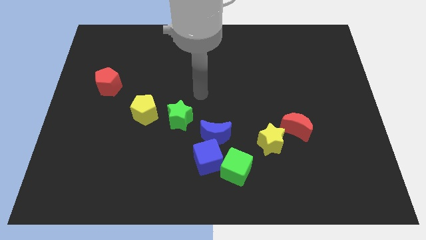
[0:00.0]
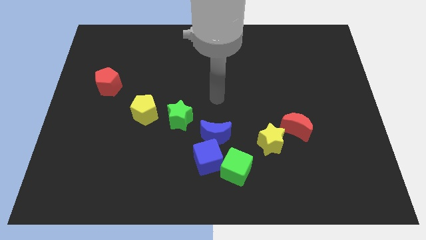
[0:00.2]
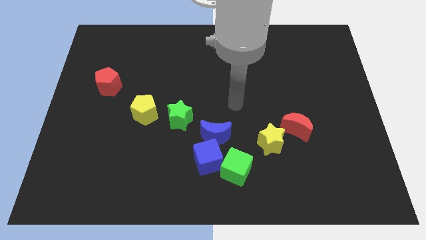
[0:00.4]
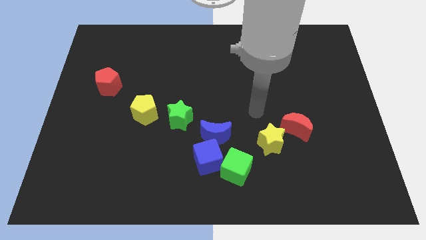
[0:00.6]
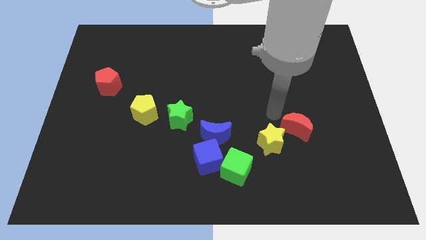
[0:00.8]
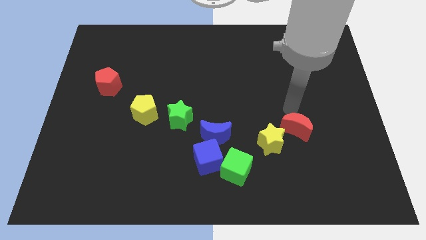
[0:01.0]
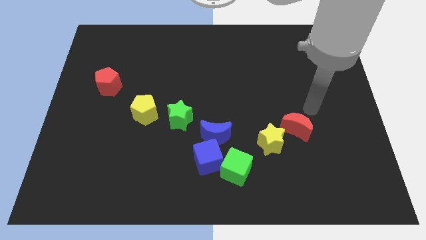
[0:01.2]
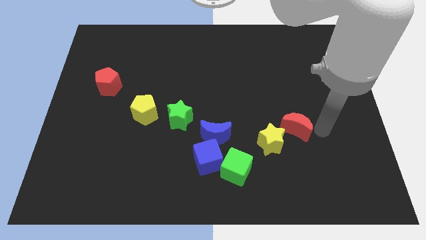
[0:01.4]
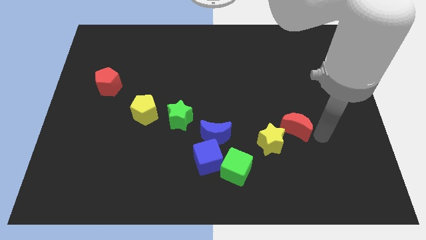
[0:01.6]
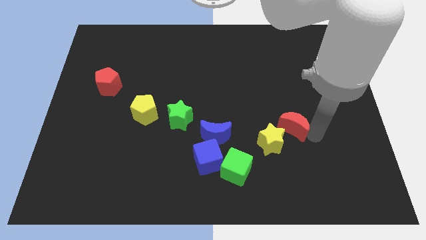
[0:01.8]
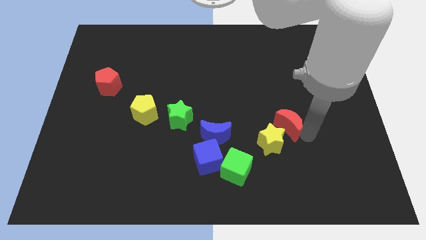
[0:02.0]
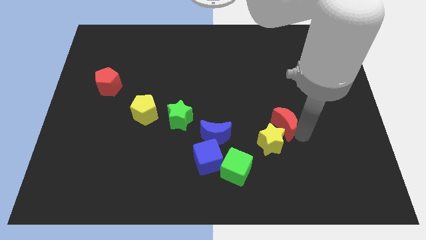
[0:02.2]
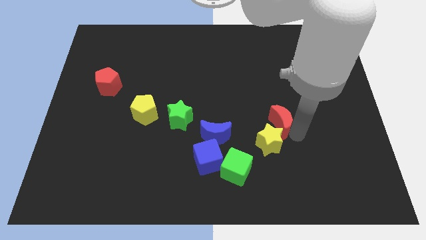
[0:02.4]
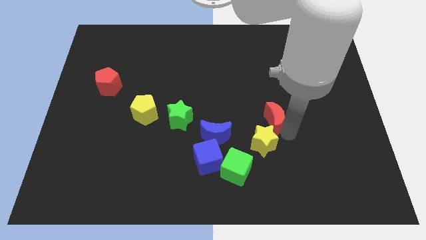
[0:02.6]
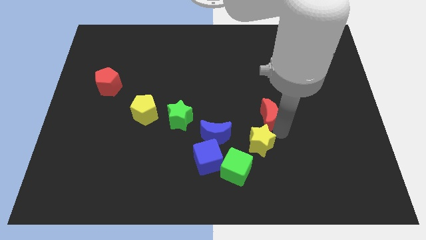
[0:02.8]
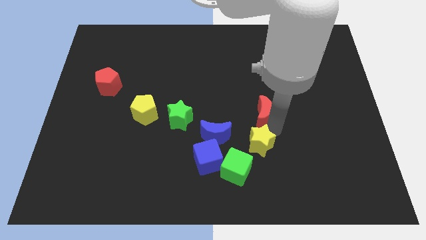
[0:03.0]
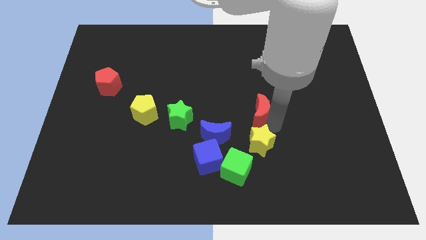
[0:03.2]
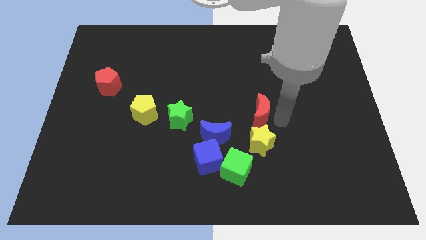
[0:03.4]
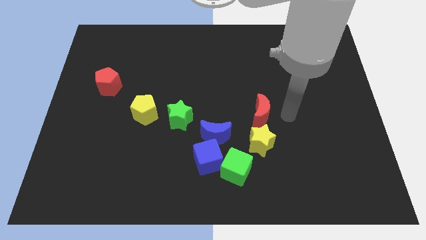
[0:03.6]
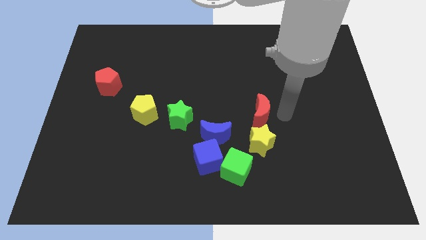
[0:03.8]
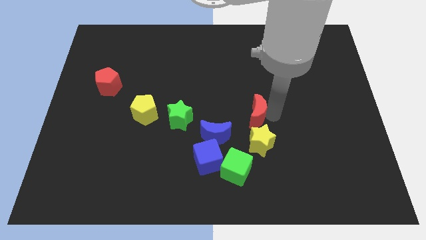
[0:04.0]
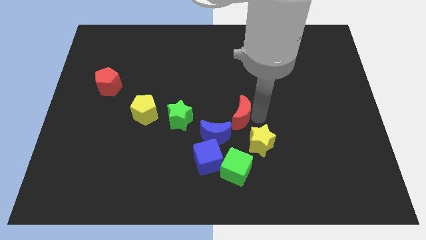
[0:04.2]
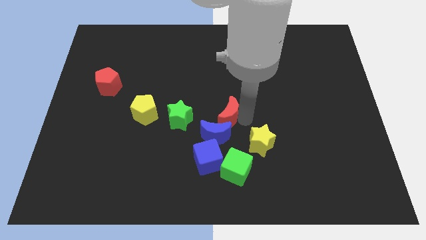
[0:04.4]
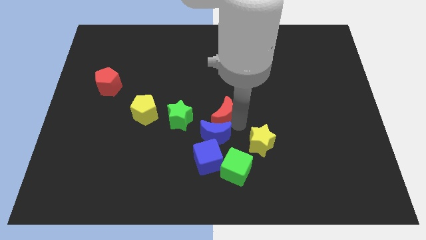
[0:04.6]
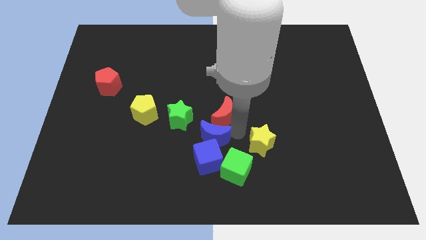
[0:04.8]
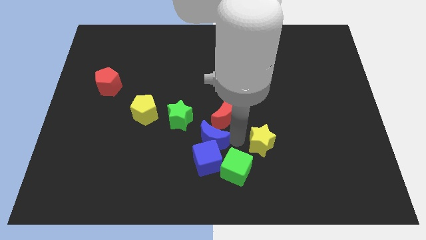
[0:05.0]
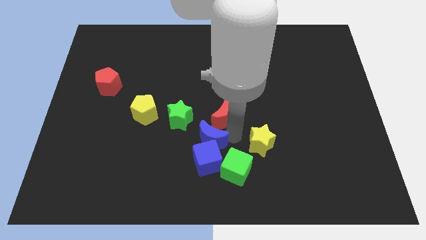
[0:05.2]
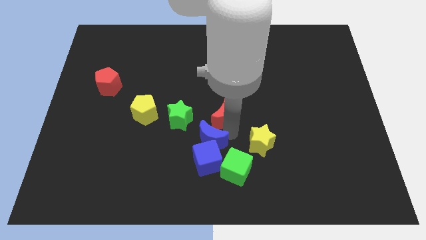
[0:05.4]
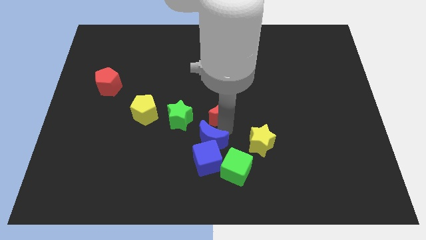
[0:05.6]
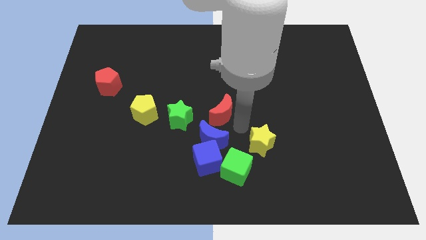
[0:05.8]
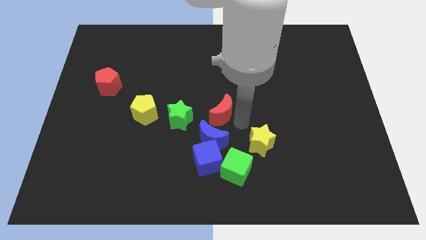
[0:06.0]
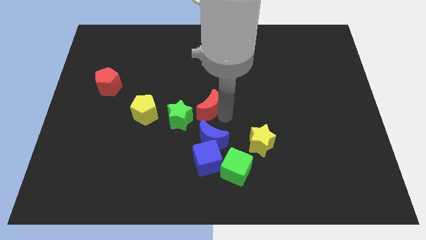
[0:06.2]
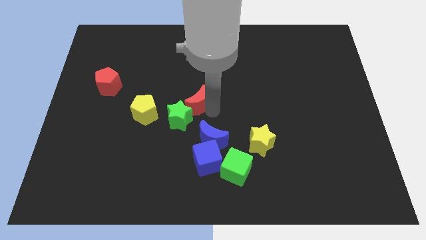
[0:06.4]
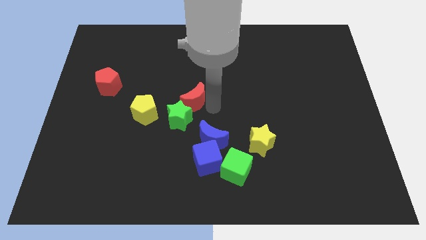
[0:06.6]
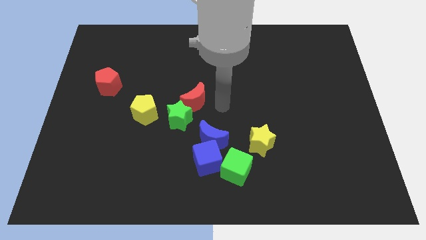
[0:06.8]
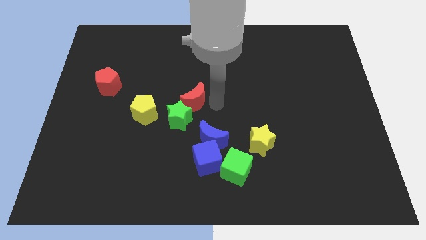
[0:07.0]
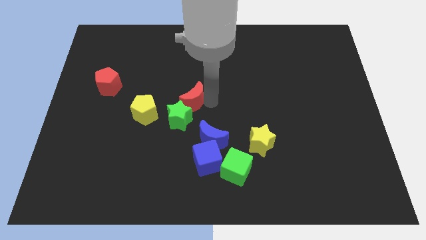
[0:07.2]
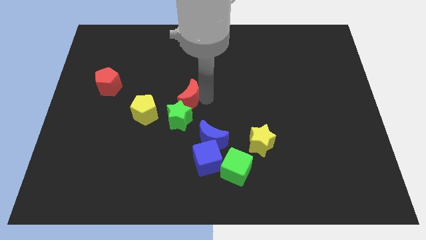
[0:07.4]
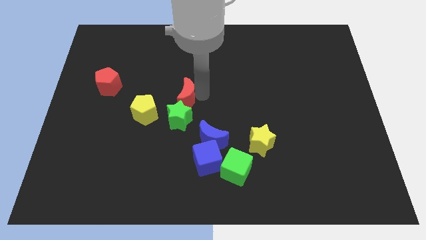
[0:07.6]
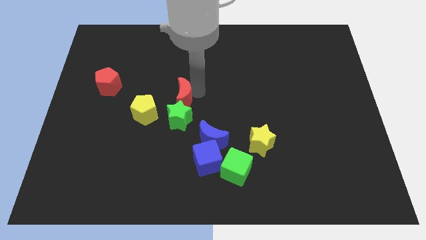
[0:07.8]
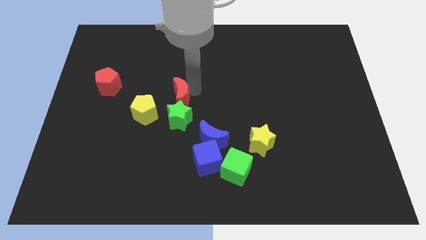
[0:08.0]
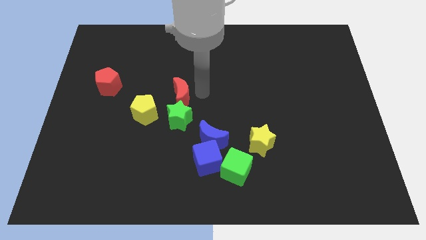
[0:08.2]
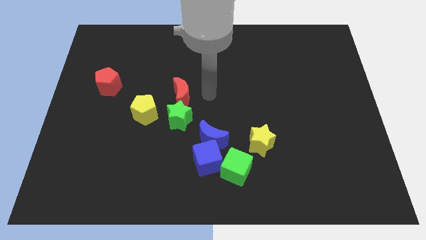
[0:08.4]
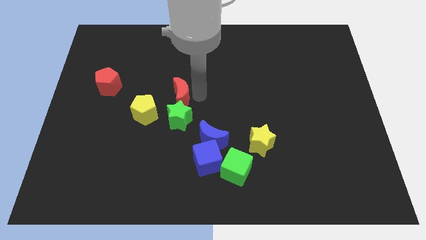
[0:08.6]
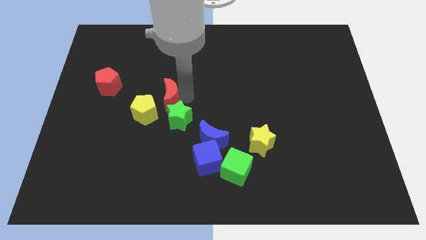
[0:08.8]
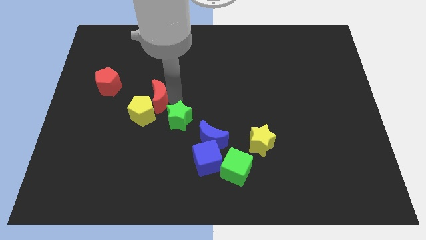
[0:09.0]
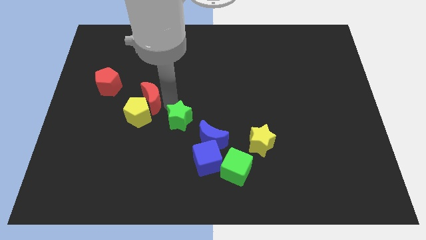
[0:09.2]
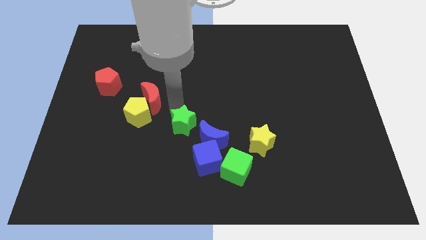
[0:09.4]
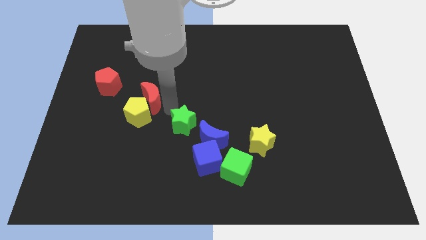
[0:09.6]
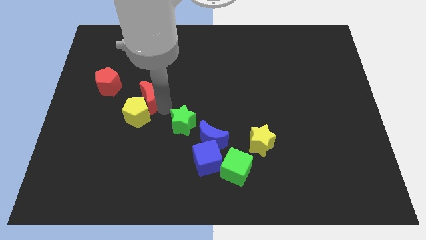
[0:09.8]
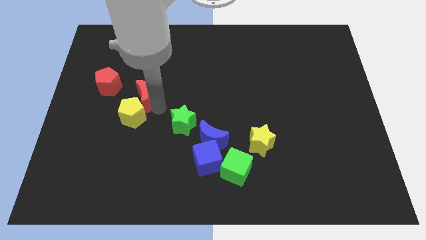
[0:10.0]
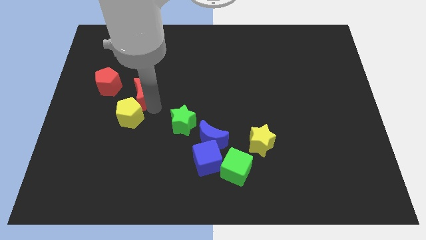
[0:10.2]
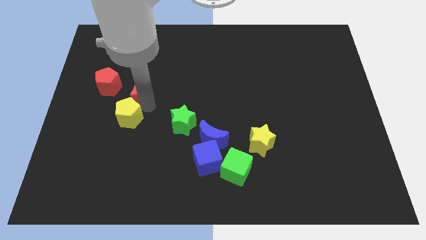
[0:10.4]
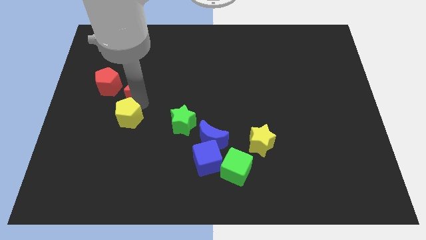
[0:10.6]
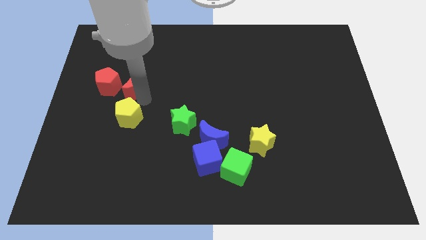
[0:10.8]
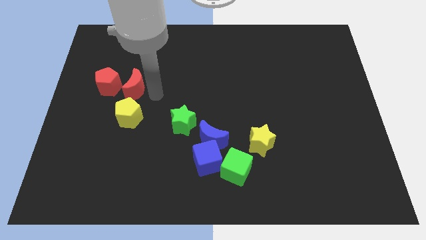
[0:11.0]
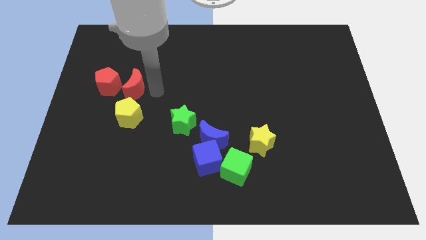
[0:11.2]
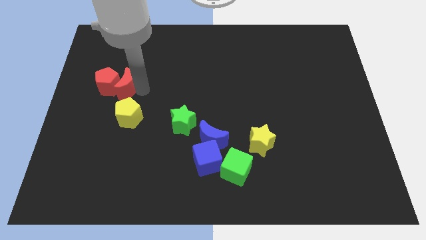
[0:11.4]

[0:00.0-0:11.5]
move the red moon next to the red pentagon

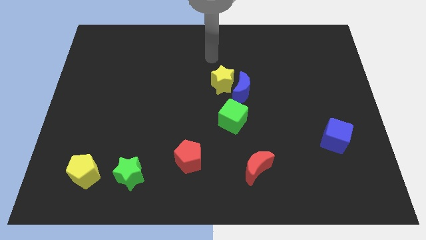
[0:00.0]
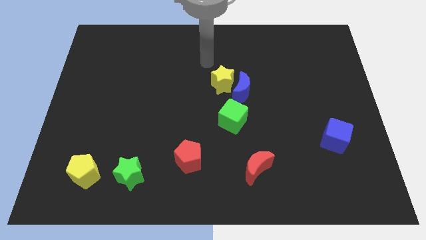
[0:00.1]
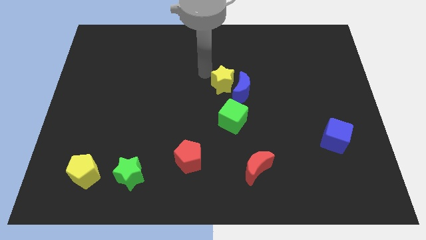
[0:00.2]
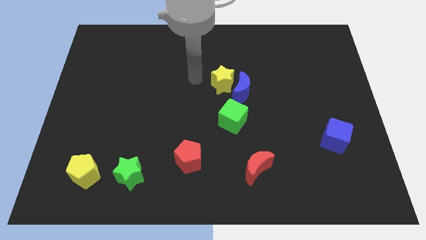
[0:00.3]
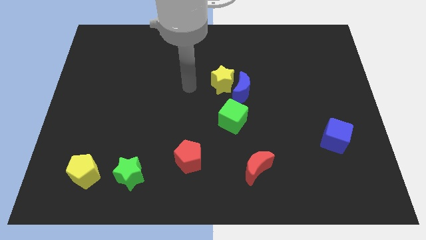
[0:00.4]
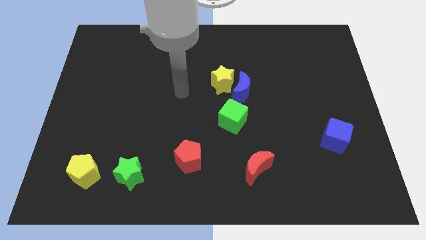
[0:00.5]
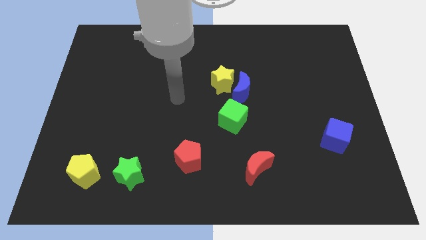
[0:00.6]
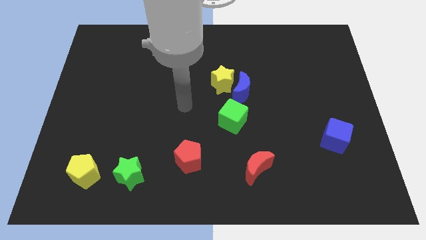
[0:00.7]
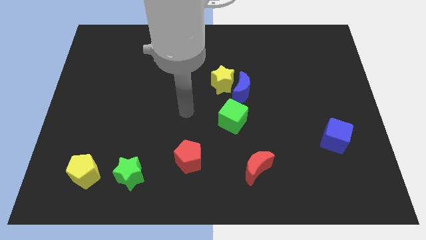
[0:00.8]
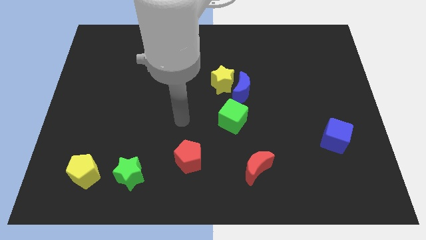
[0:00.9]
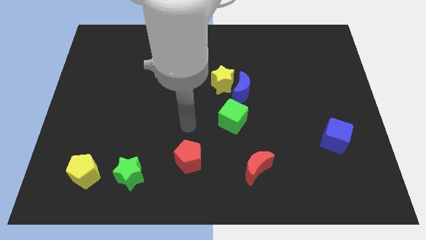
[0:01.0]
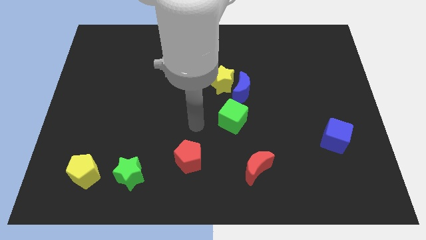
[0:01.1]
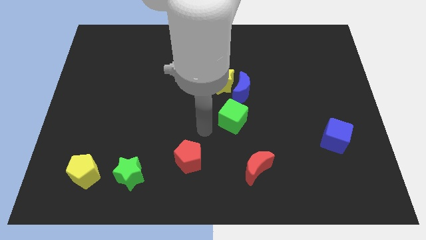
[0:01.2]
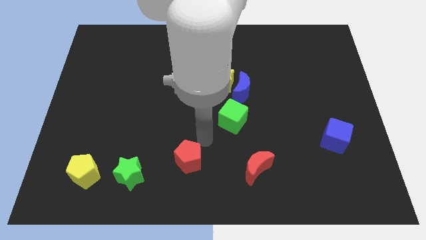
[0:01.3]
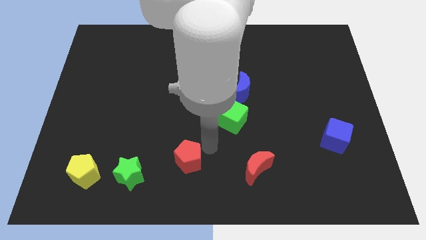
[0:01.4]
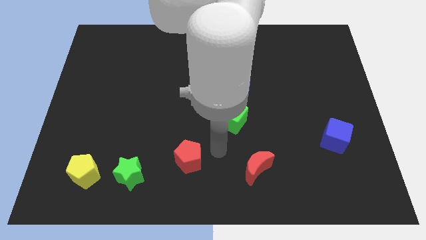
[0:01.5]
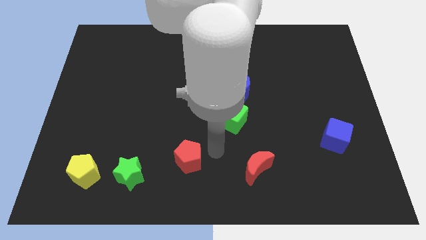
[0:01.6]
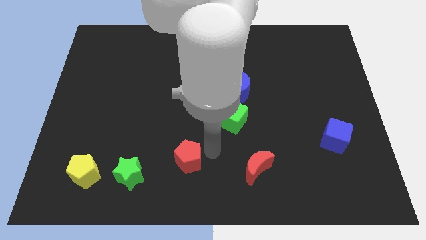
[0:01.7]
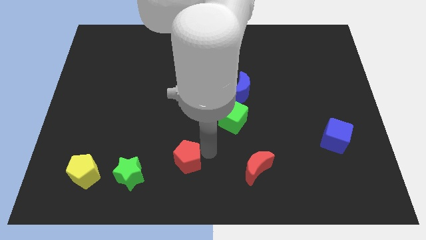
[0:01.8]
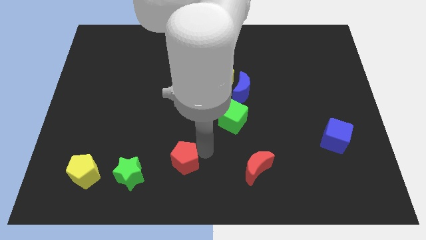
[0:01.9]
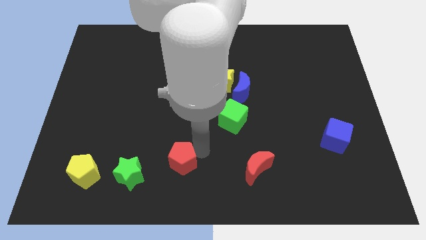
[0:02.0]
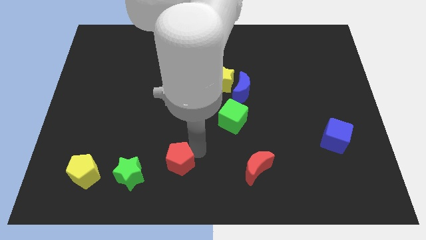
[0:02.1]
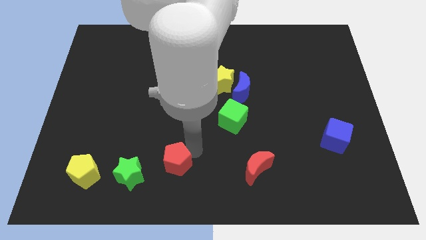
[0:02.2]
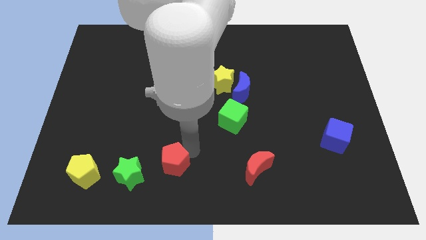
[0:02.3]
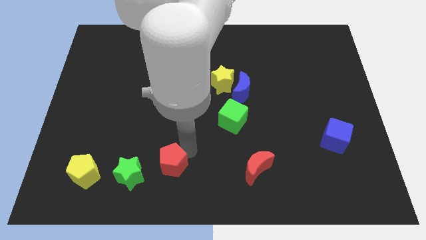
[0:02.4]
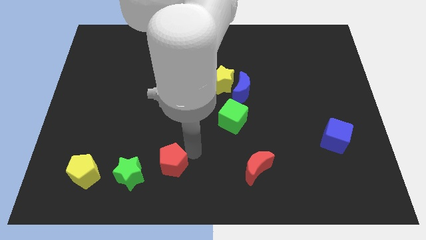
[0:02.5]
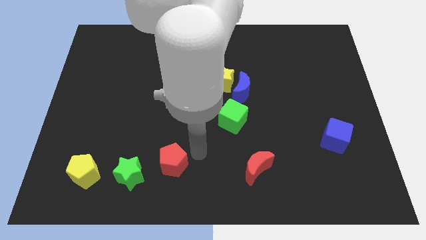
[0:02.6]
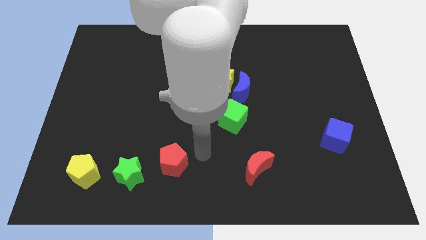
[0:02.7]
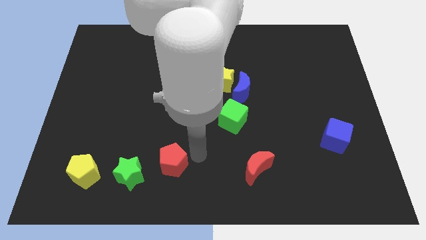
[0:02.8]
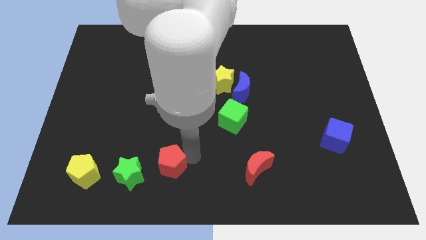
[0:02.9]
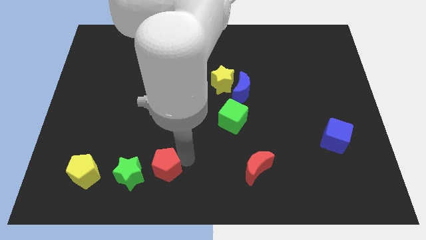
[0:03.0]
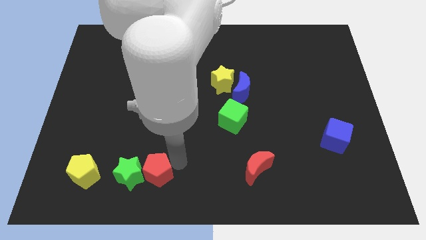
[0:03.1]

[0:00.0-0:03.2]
push the red pentagon towards the green star
